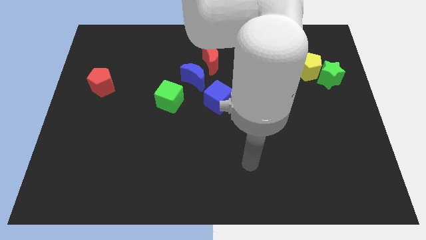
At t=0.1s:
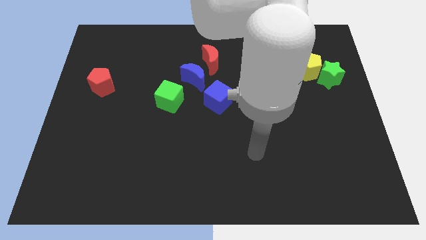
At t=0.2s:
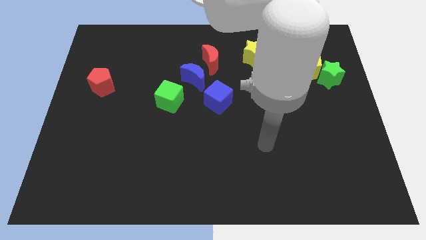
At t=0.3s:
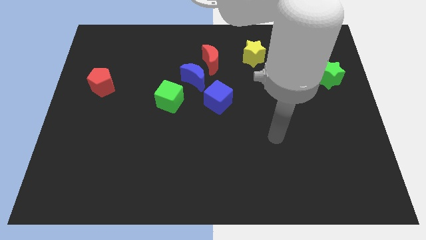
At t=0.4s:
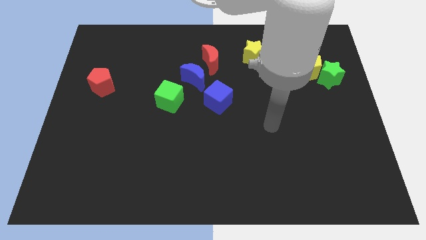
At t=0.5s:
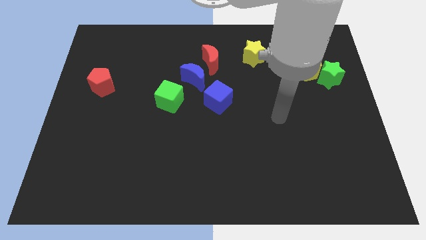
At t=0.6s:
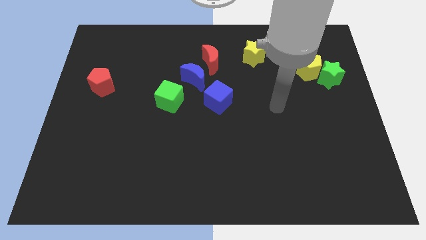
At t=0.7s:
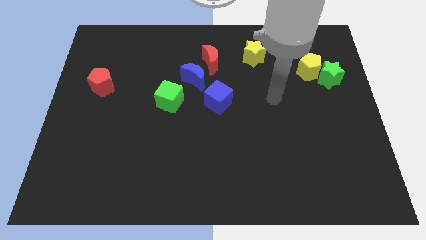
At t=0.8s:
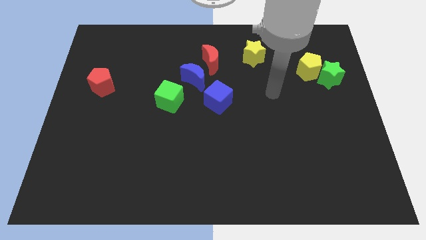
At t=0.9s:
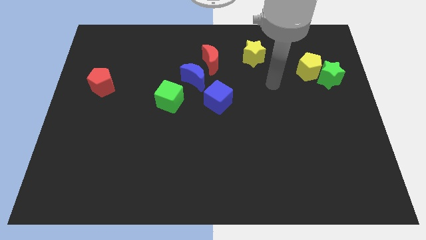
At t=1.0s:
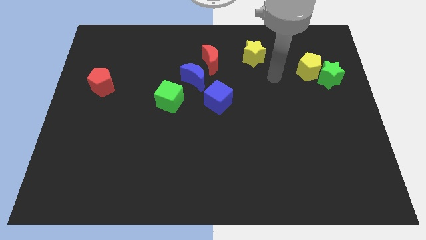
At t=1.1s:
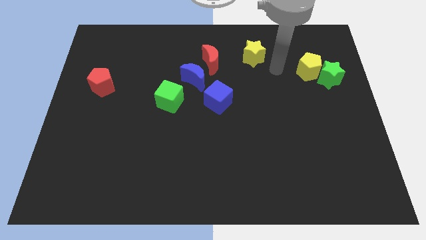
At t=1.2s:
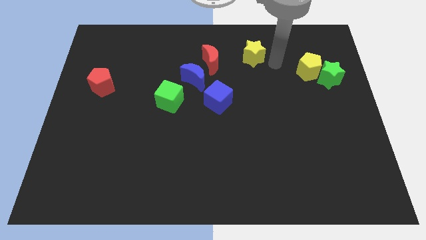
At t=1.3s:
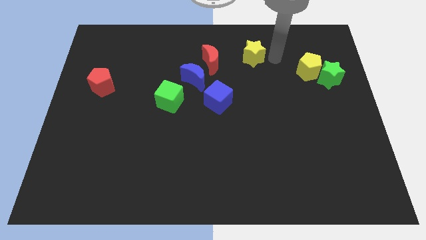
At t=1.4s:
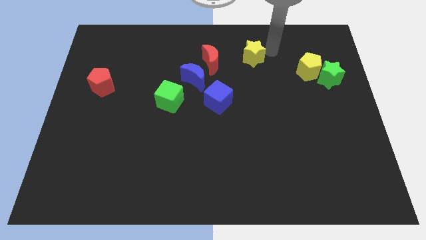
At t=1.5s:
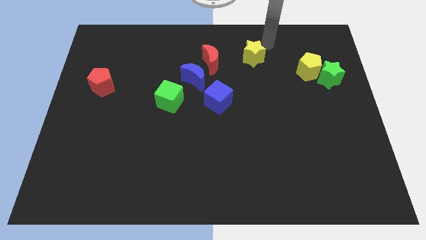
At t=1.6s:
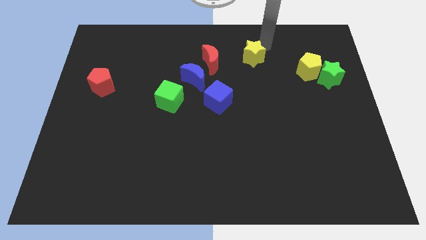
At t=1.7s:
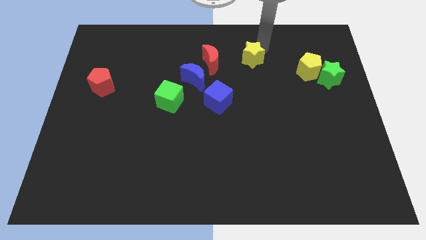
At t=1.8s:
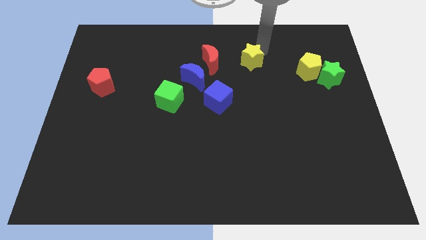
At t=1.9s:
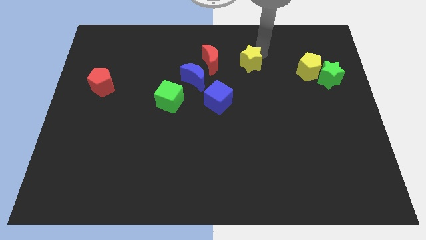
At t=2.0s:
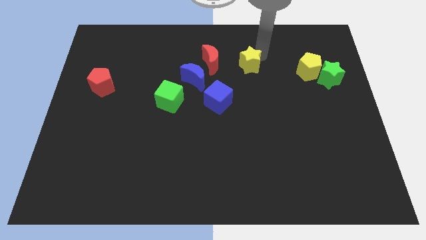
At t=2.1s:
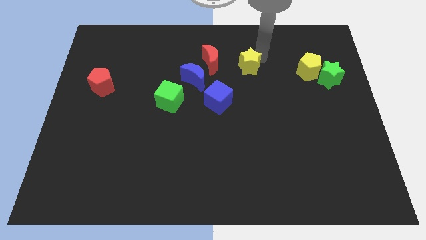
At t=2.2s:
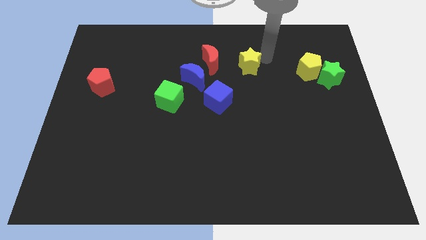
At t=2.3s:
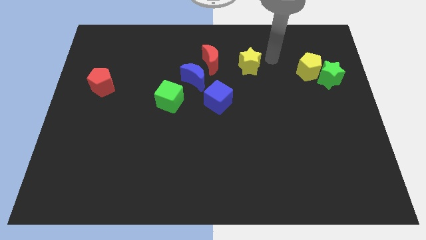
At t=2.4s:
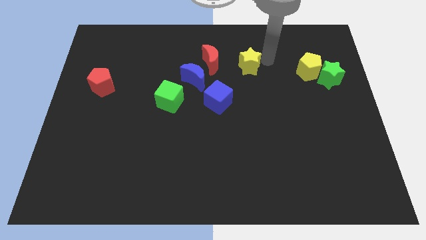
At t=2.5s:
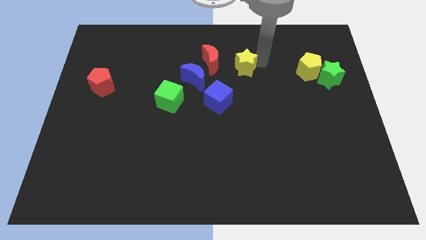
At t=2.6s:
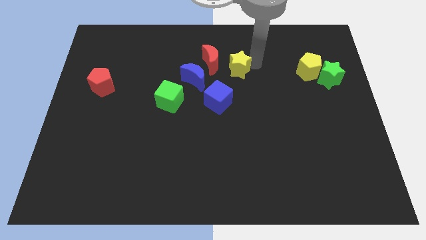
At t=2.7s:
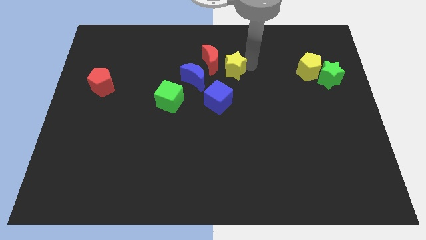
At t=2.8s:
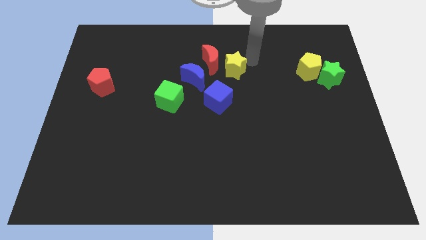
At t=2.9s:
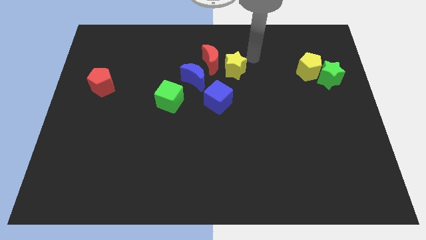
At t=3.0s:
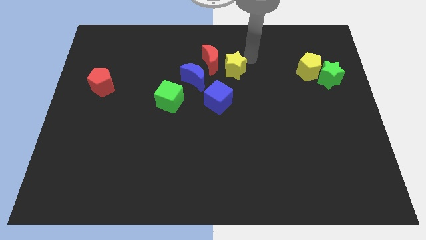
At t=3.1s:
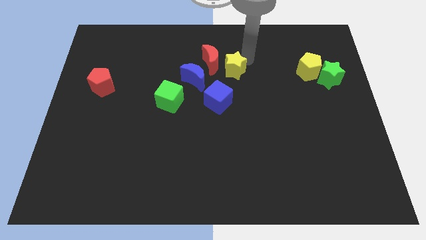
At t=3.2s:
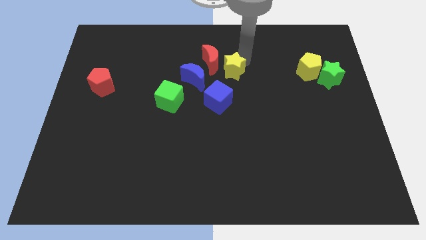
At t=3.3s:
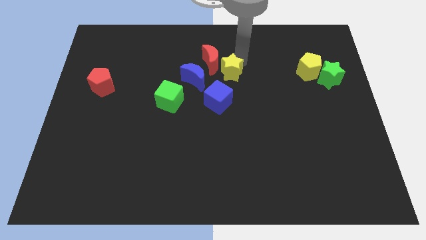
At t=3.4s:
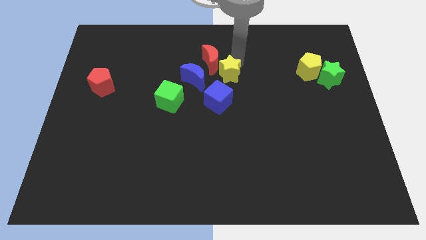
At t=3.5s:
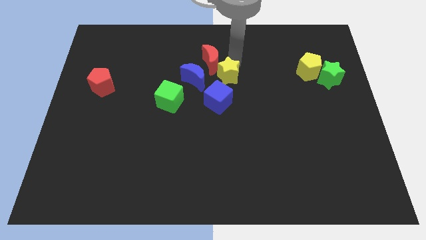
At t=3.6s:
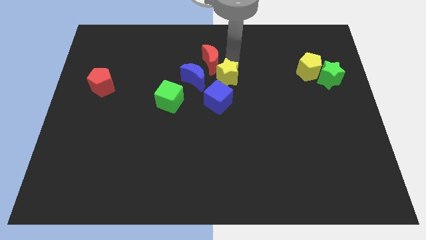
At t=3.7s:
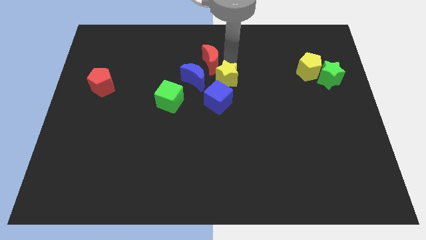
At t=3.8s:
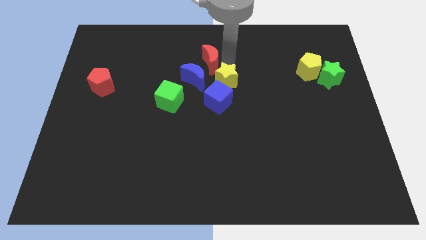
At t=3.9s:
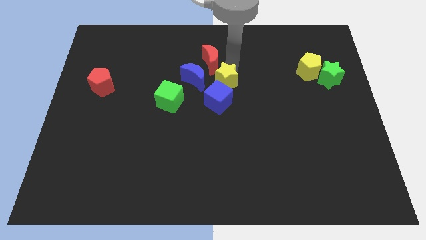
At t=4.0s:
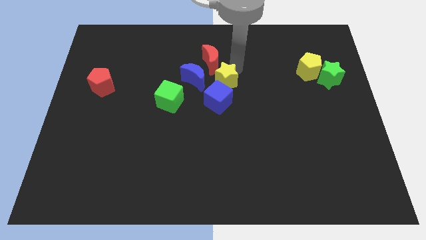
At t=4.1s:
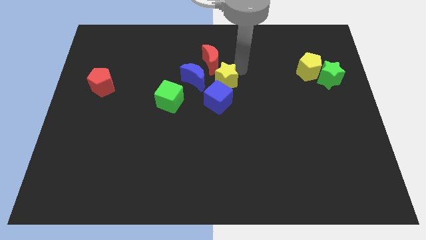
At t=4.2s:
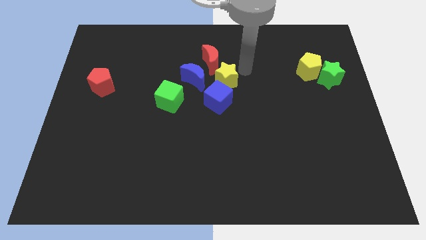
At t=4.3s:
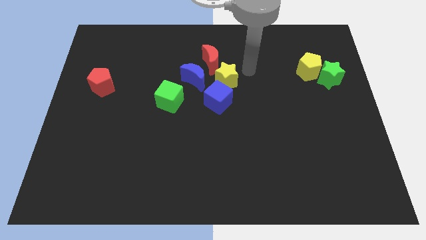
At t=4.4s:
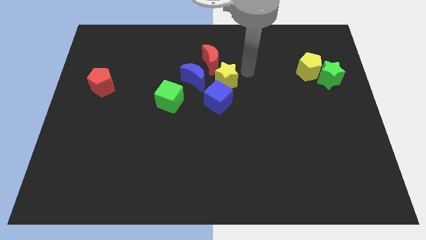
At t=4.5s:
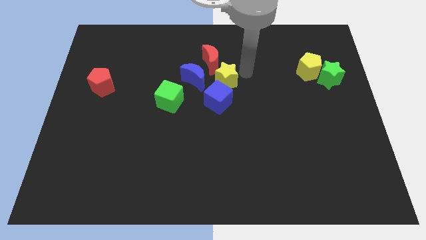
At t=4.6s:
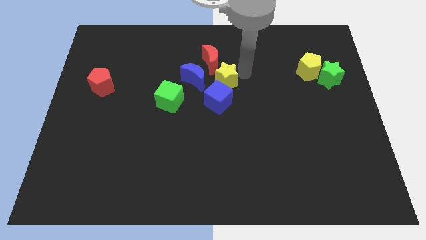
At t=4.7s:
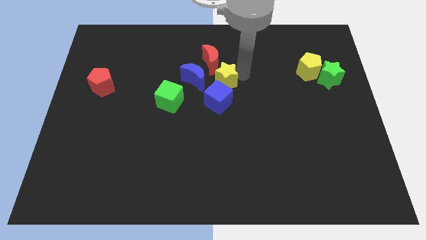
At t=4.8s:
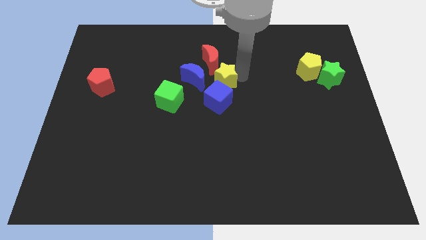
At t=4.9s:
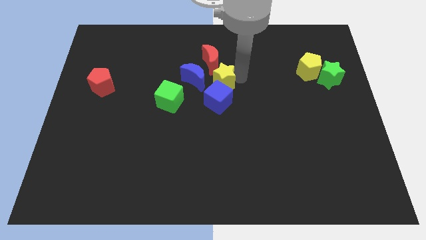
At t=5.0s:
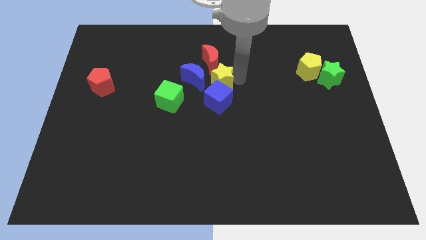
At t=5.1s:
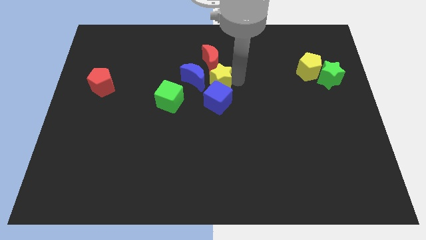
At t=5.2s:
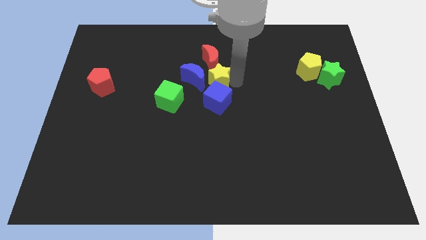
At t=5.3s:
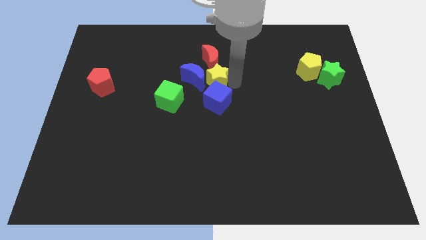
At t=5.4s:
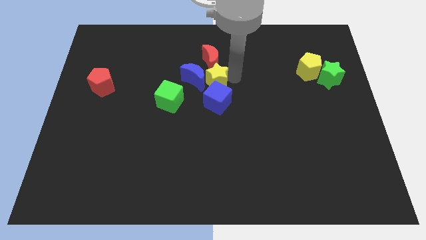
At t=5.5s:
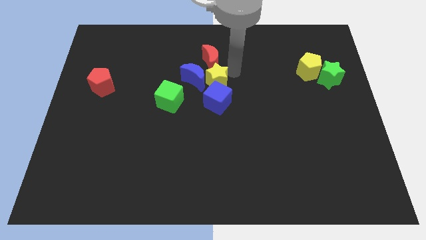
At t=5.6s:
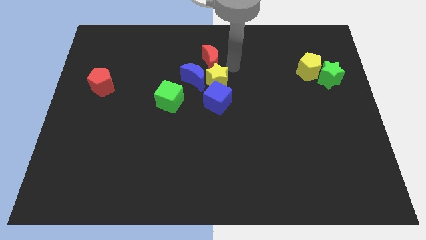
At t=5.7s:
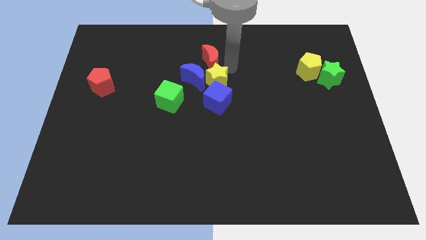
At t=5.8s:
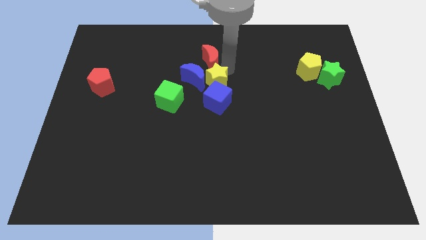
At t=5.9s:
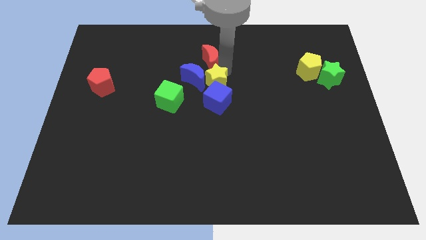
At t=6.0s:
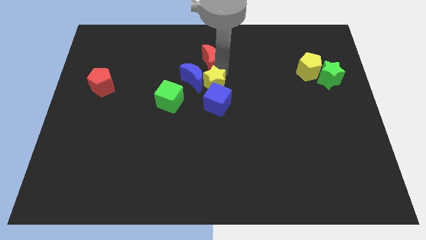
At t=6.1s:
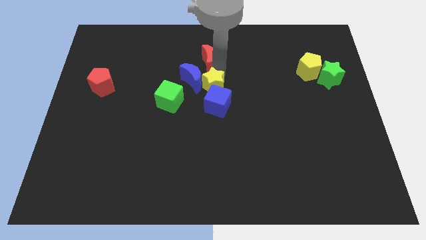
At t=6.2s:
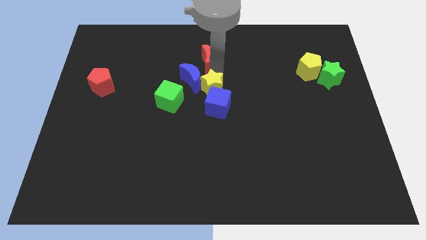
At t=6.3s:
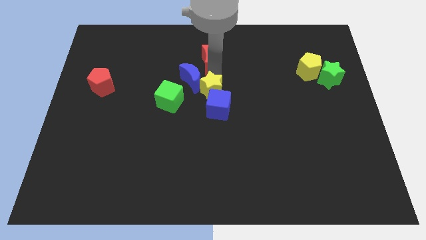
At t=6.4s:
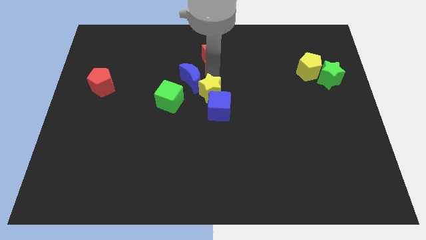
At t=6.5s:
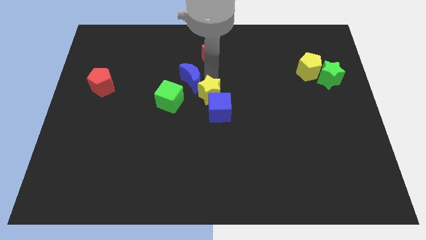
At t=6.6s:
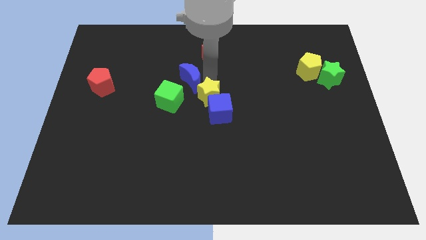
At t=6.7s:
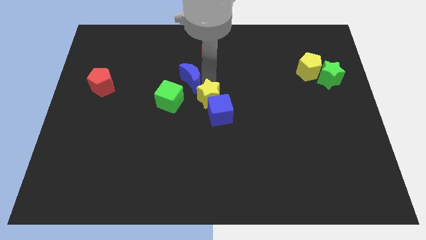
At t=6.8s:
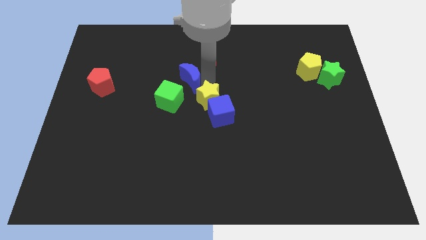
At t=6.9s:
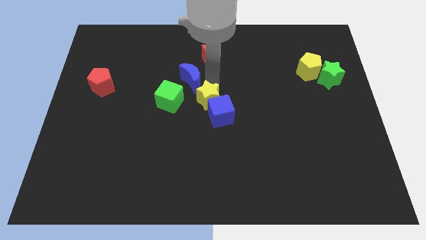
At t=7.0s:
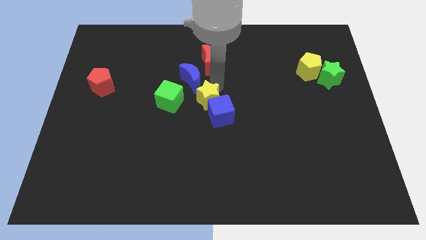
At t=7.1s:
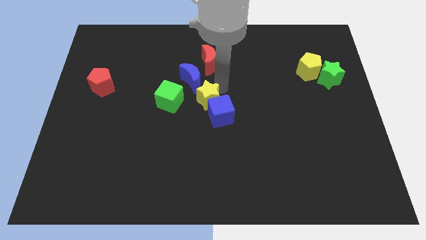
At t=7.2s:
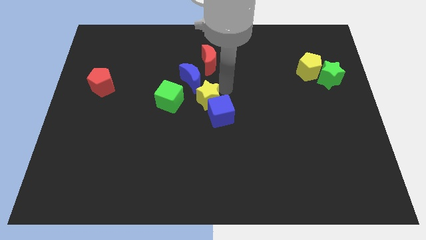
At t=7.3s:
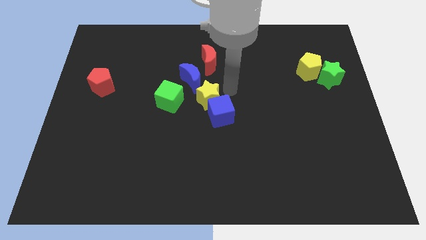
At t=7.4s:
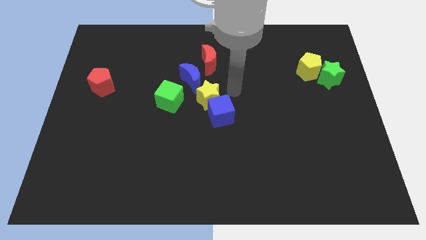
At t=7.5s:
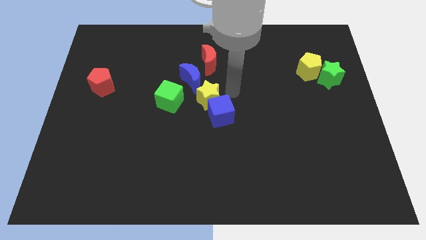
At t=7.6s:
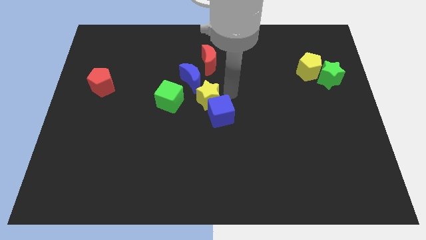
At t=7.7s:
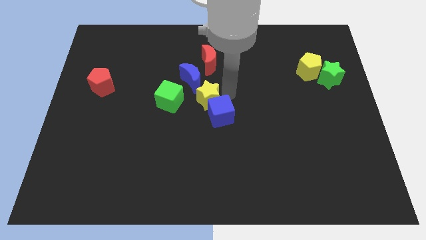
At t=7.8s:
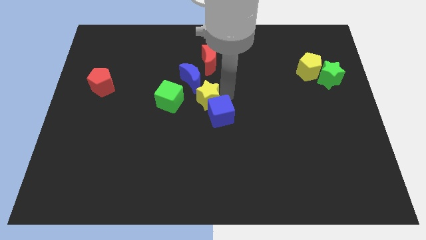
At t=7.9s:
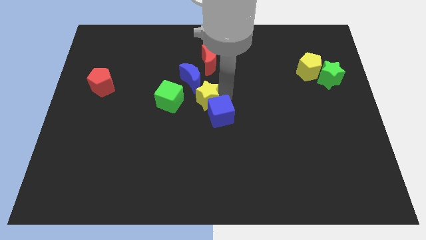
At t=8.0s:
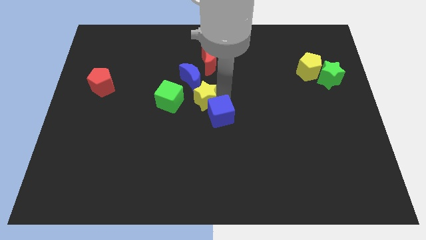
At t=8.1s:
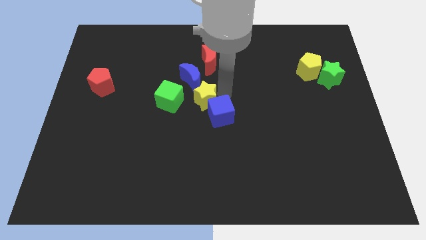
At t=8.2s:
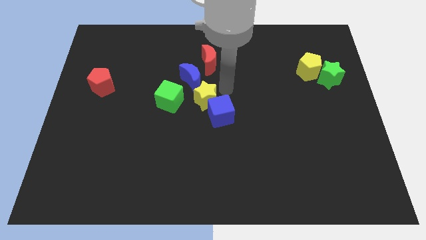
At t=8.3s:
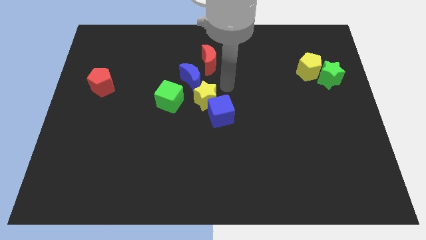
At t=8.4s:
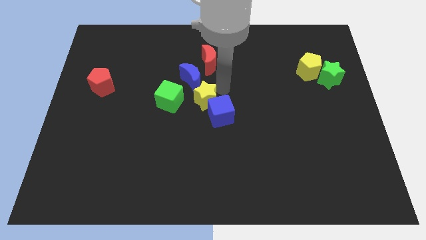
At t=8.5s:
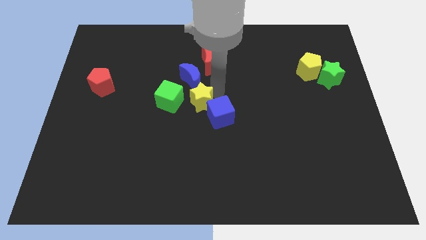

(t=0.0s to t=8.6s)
push the yellow star diagonally downwards and to the left
